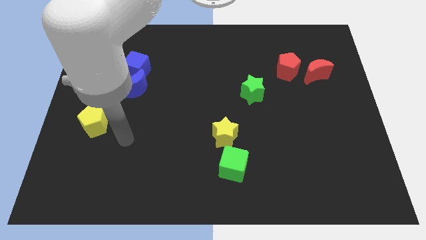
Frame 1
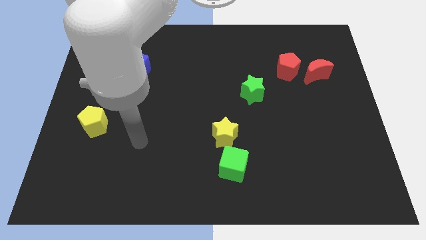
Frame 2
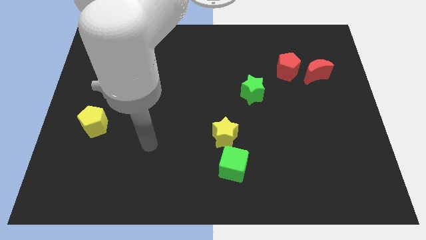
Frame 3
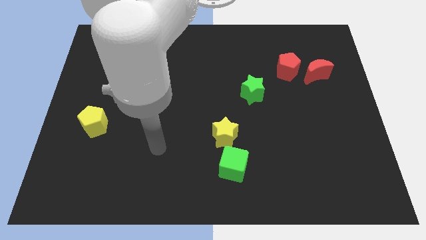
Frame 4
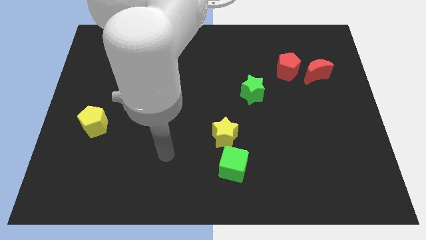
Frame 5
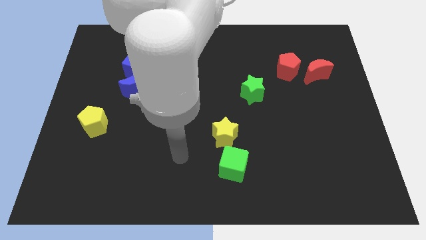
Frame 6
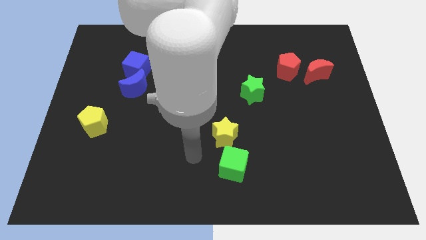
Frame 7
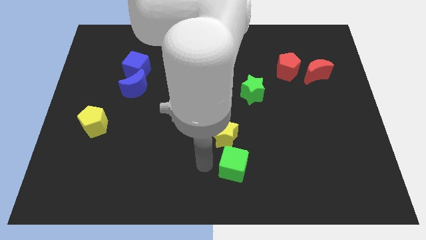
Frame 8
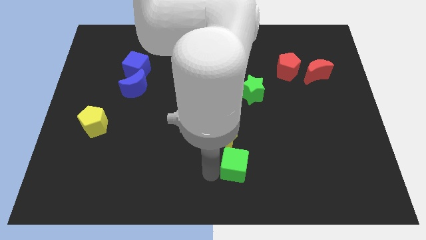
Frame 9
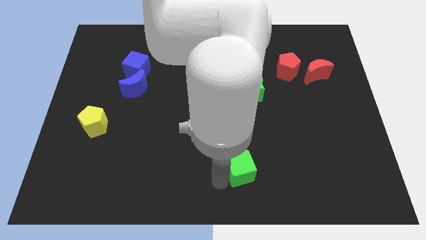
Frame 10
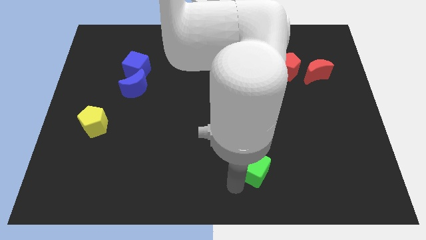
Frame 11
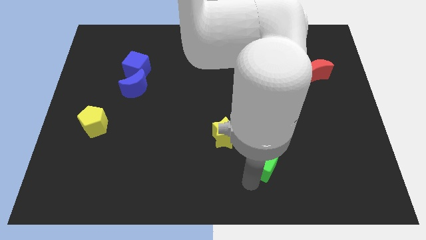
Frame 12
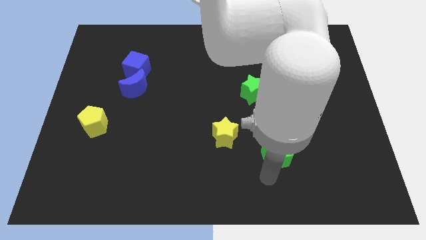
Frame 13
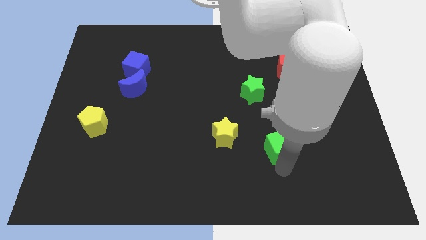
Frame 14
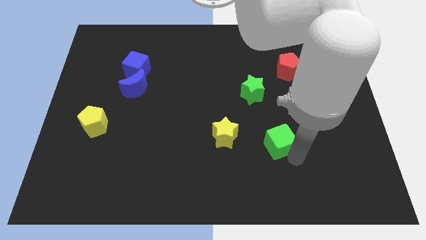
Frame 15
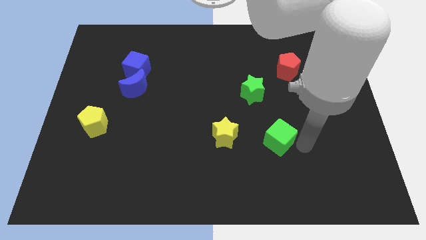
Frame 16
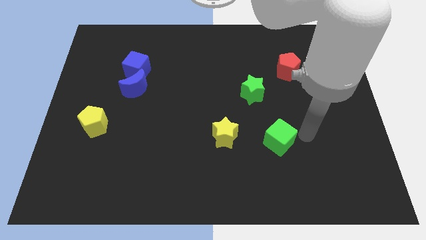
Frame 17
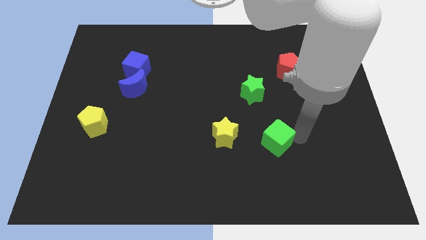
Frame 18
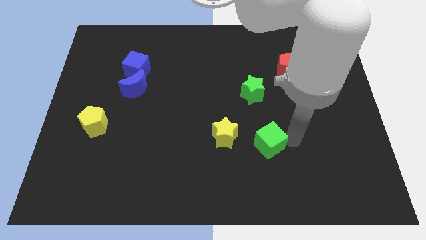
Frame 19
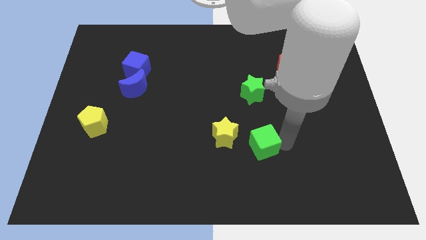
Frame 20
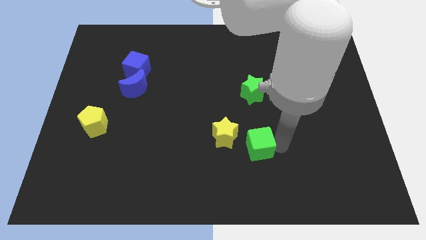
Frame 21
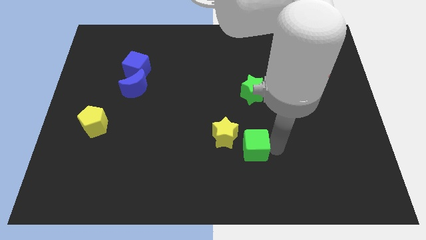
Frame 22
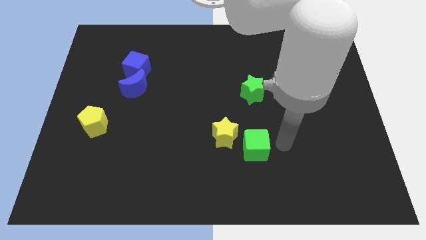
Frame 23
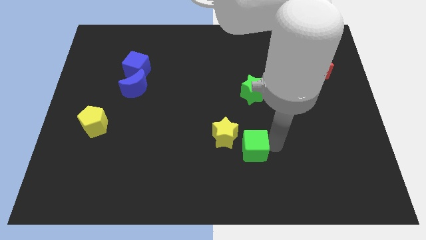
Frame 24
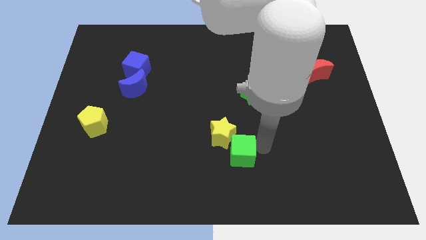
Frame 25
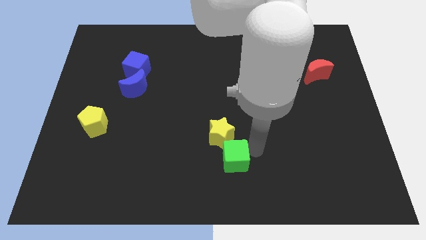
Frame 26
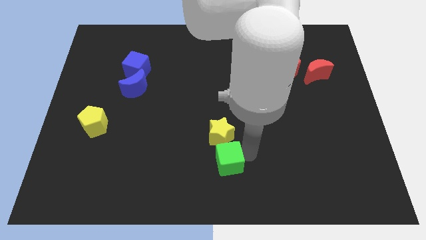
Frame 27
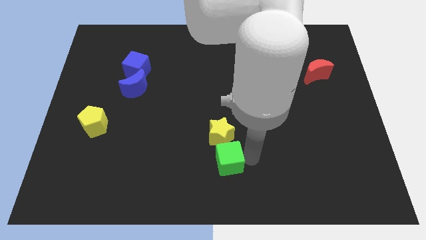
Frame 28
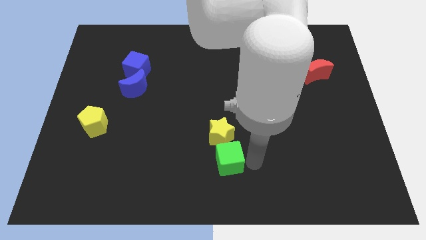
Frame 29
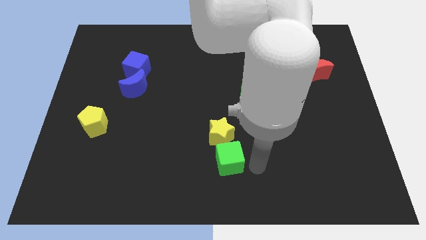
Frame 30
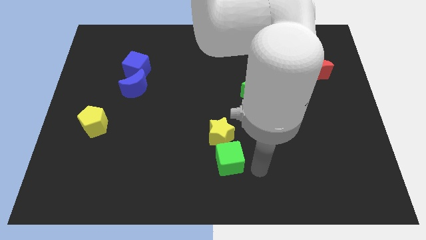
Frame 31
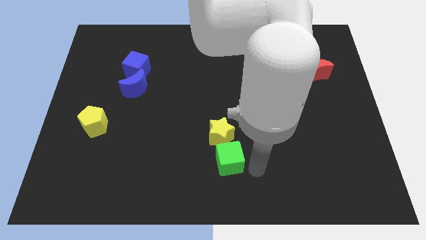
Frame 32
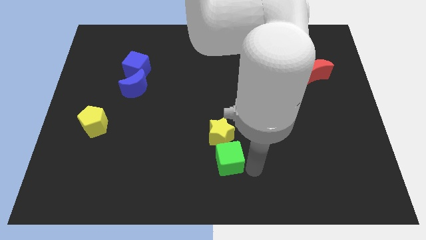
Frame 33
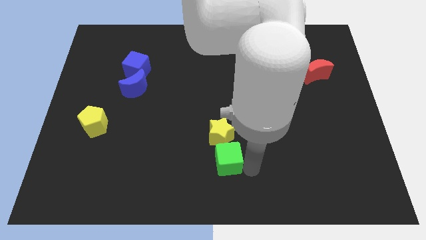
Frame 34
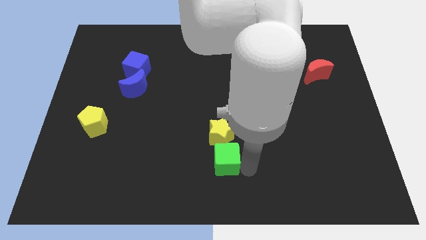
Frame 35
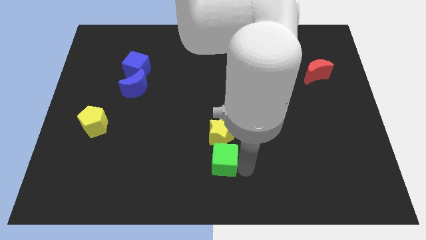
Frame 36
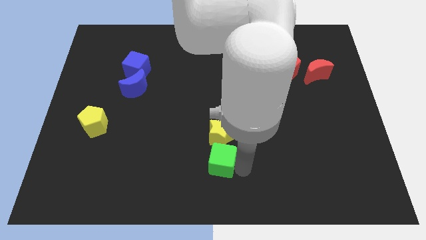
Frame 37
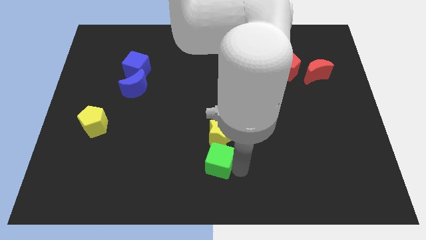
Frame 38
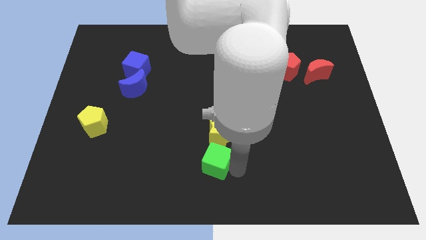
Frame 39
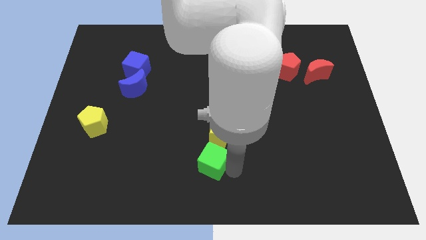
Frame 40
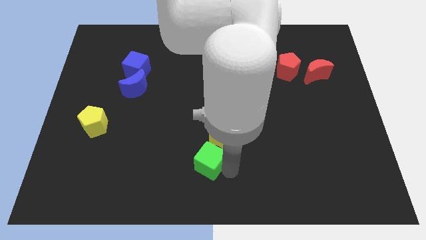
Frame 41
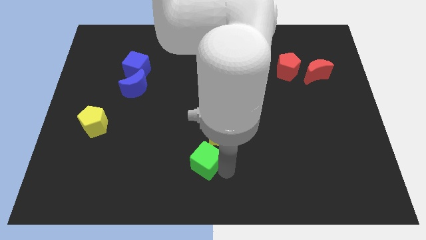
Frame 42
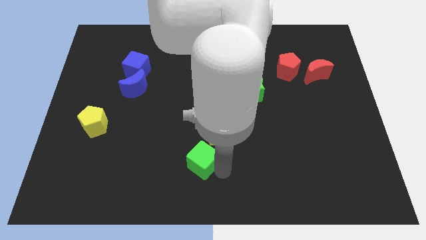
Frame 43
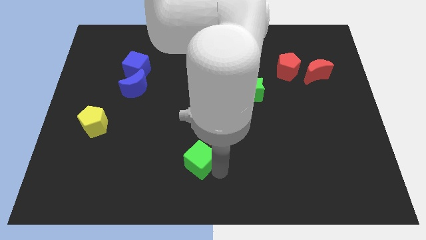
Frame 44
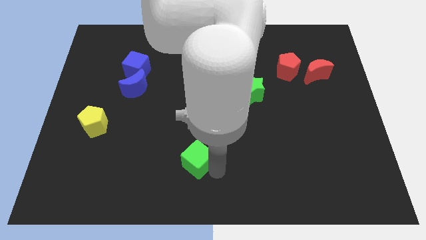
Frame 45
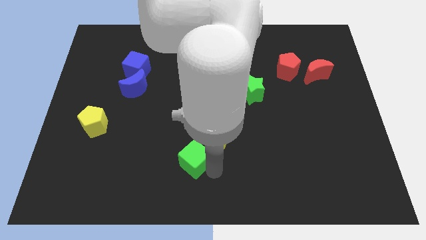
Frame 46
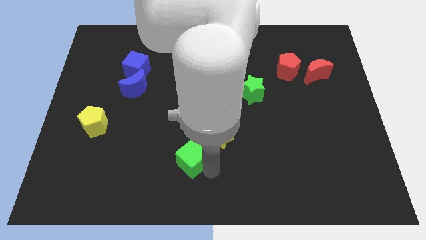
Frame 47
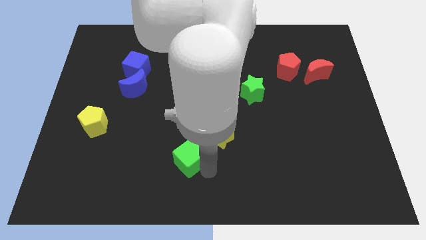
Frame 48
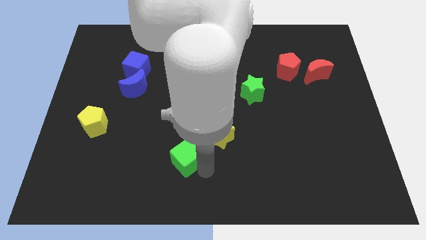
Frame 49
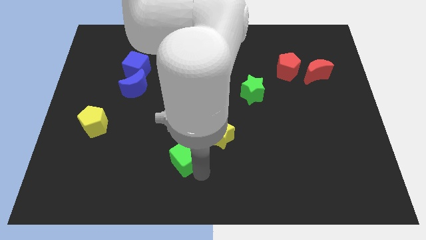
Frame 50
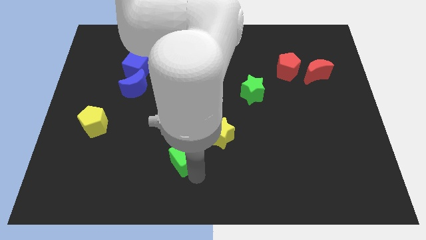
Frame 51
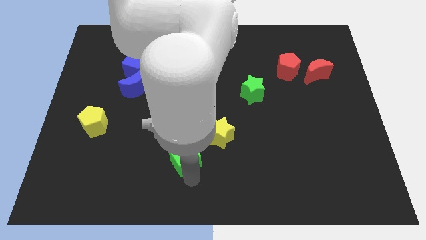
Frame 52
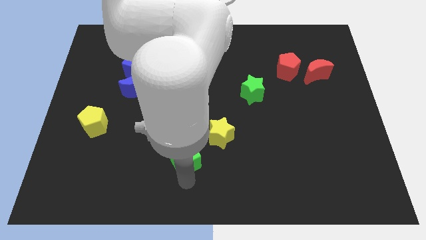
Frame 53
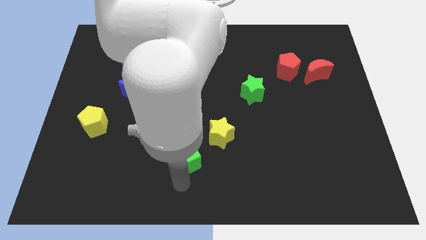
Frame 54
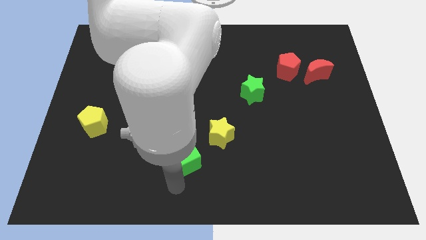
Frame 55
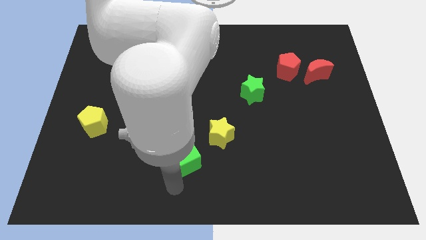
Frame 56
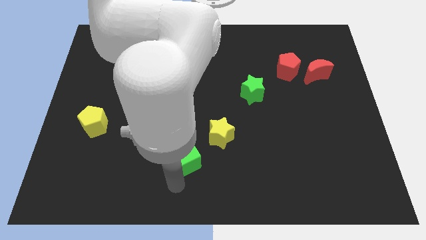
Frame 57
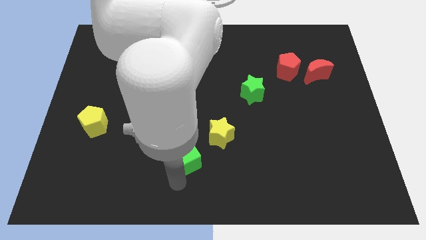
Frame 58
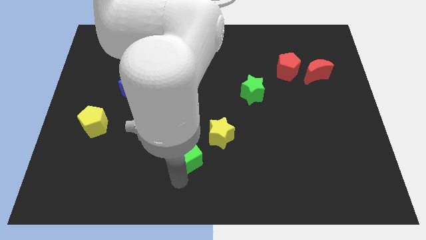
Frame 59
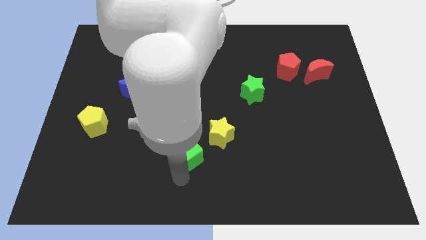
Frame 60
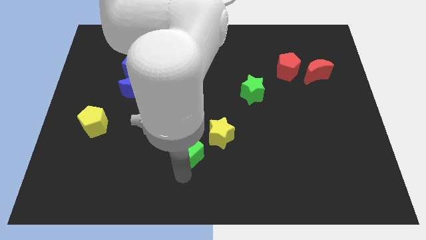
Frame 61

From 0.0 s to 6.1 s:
move the green cube to the left of the yellow star

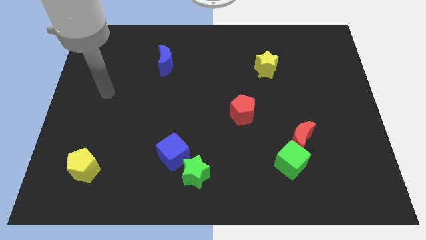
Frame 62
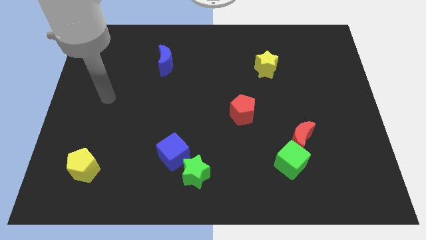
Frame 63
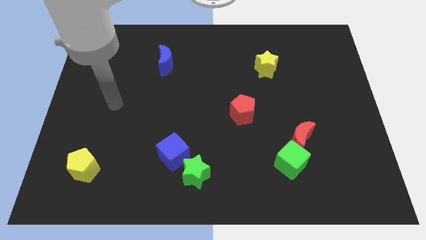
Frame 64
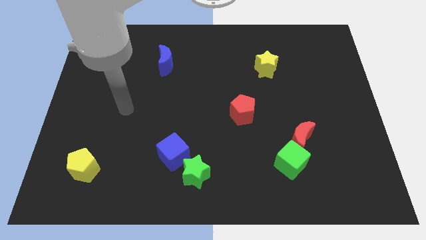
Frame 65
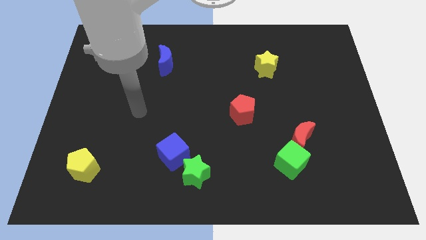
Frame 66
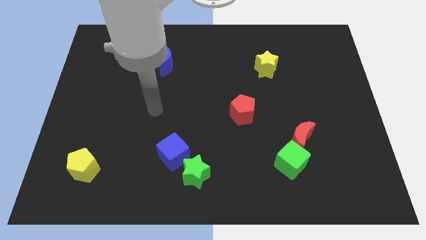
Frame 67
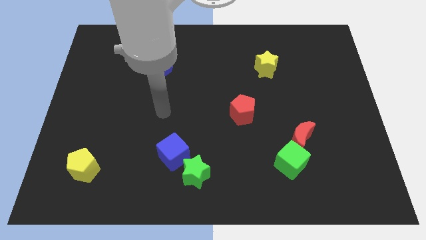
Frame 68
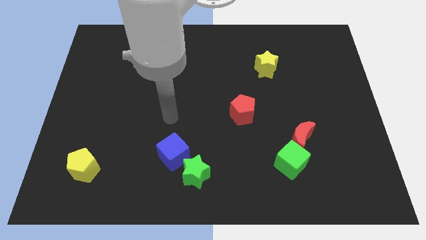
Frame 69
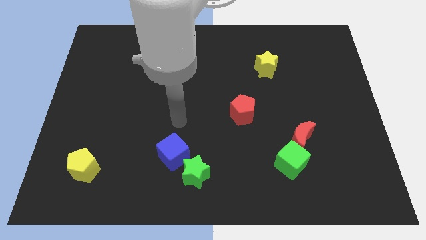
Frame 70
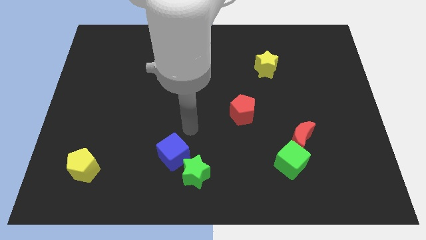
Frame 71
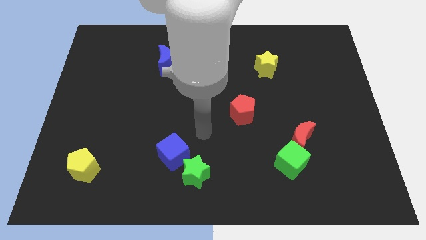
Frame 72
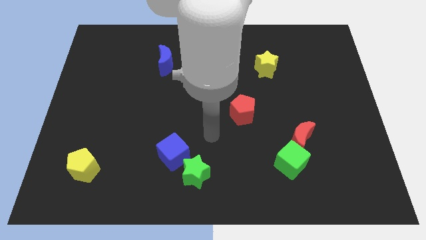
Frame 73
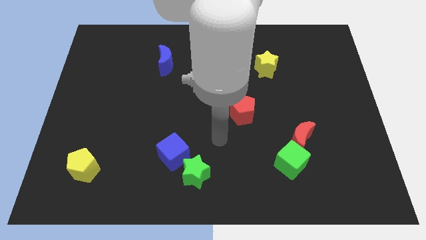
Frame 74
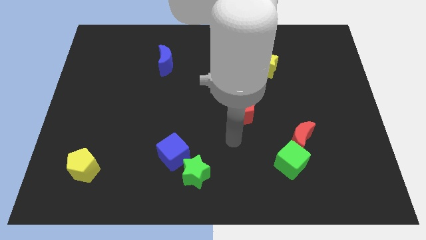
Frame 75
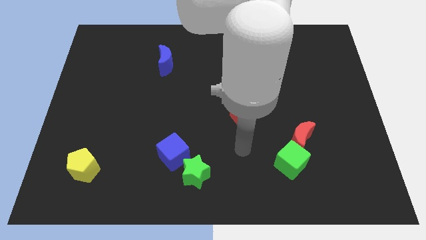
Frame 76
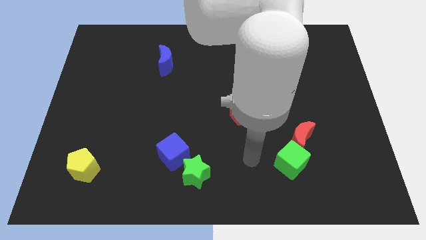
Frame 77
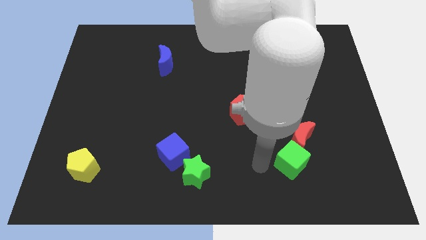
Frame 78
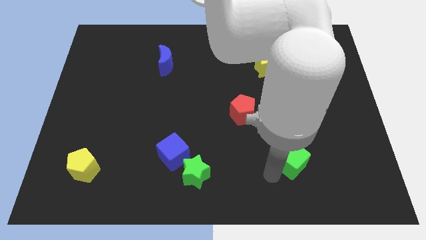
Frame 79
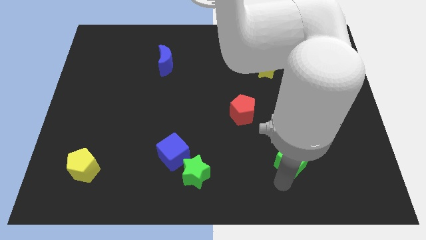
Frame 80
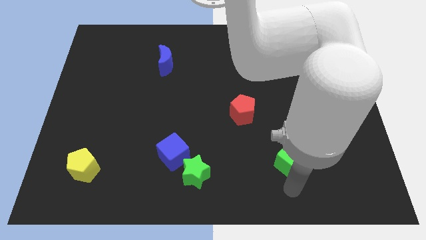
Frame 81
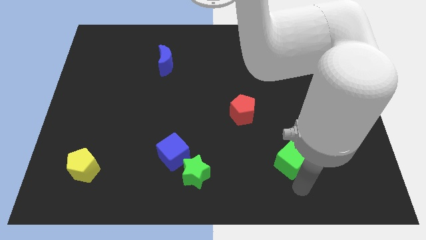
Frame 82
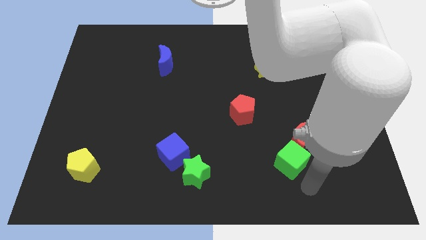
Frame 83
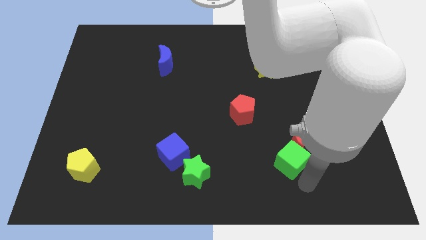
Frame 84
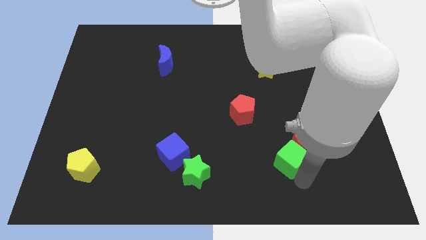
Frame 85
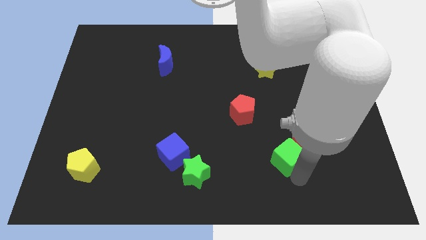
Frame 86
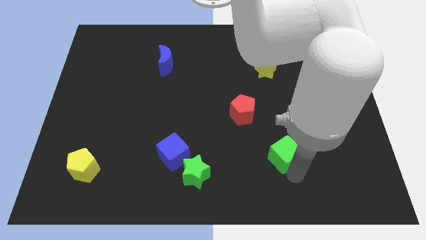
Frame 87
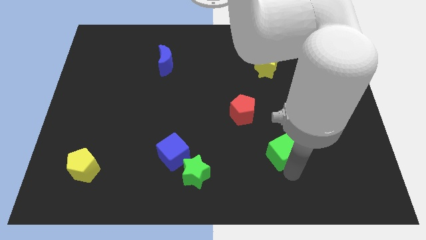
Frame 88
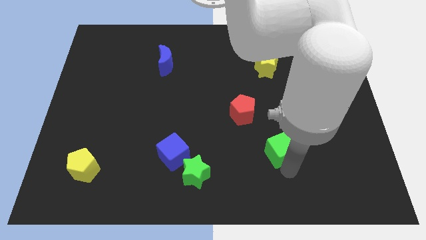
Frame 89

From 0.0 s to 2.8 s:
put the green cube diagonally down and to the right of the red pentagon
